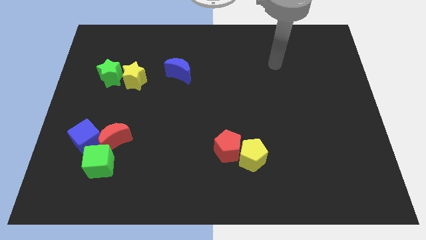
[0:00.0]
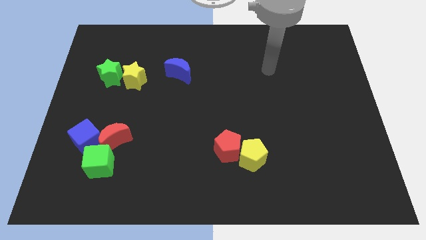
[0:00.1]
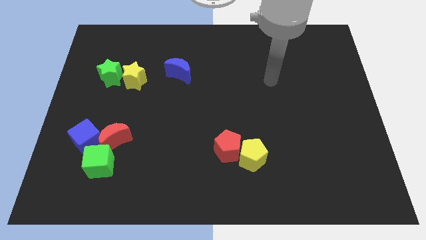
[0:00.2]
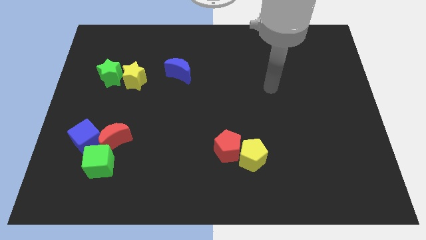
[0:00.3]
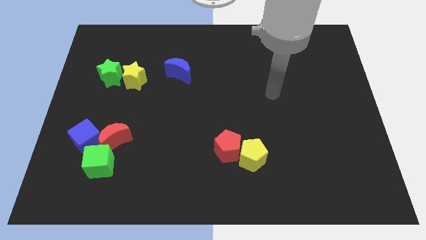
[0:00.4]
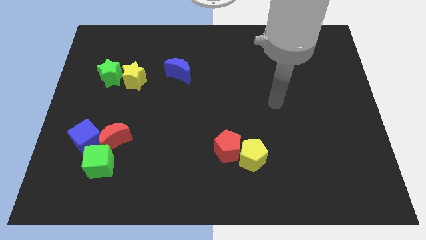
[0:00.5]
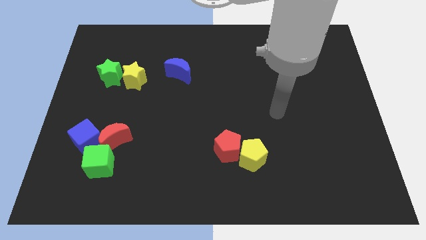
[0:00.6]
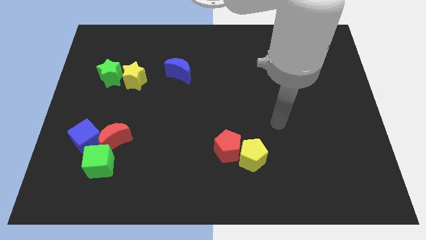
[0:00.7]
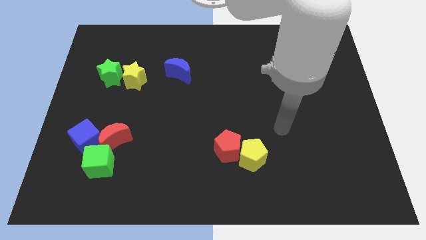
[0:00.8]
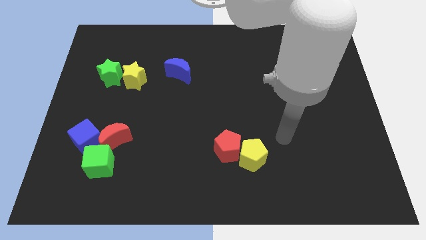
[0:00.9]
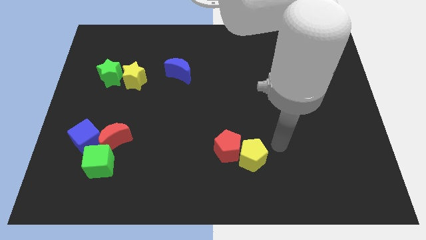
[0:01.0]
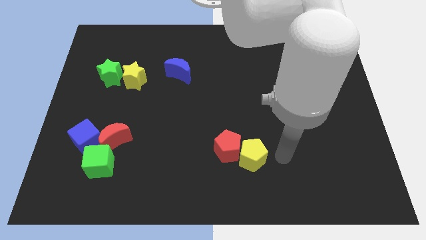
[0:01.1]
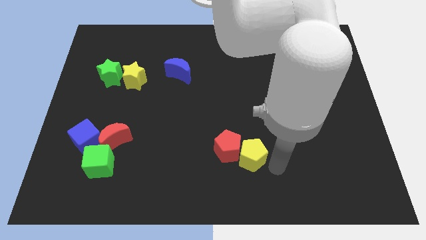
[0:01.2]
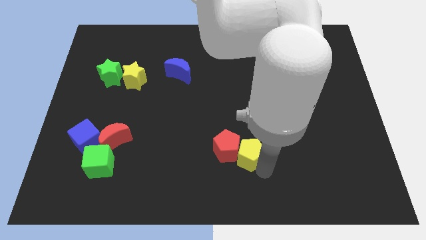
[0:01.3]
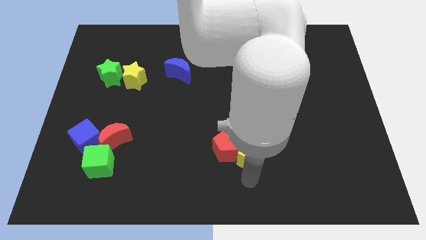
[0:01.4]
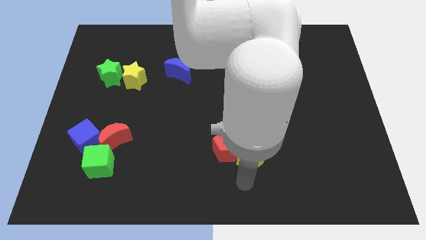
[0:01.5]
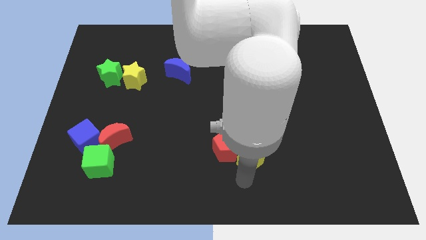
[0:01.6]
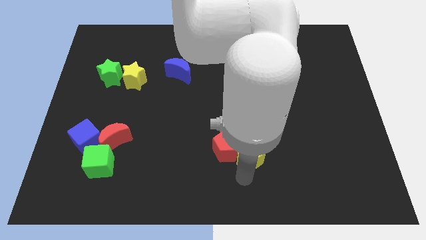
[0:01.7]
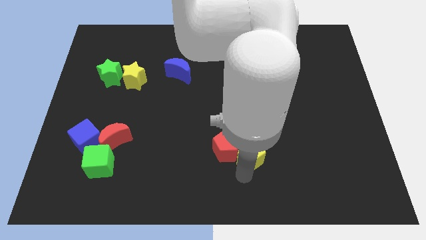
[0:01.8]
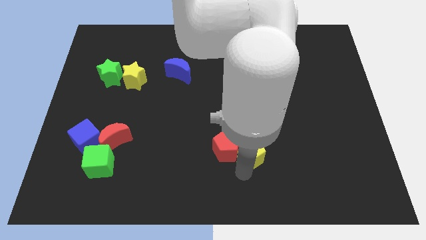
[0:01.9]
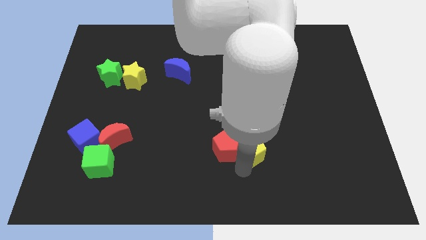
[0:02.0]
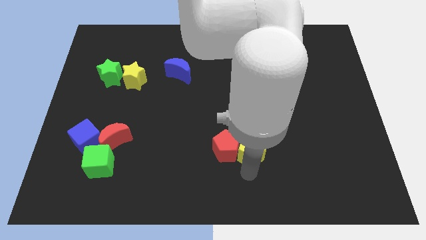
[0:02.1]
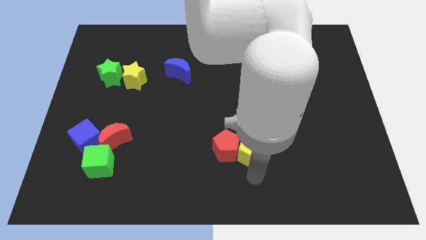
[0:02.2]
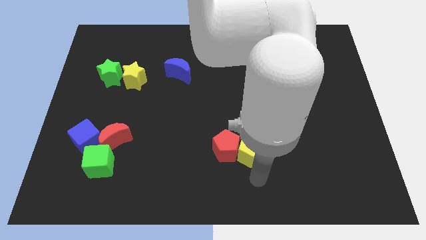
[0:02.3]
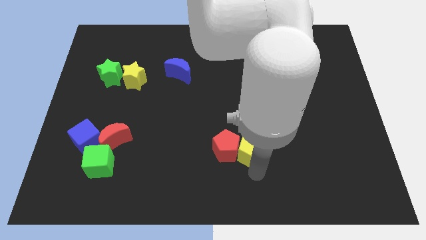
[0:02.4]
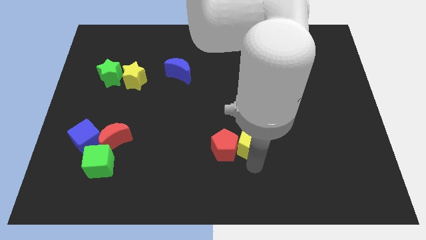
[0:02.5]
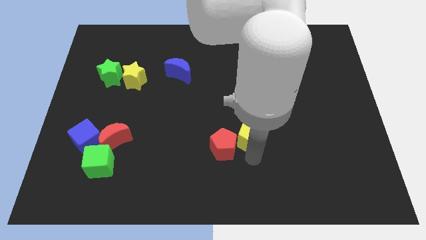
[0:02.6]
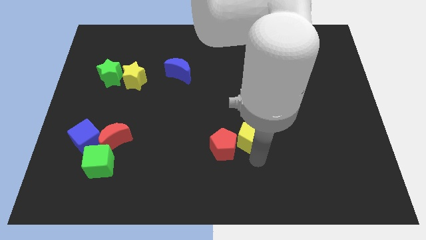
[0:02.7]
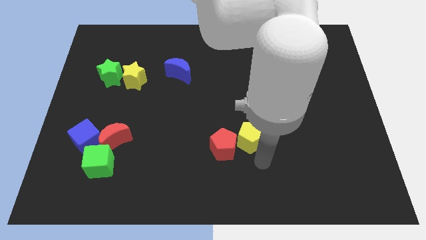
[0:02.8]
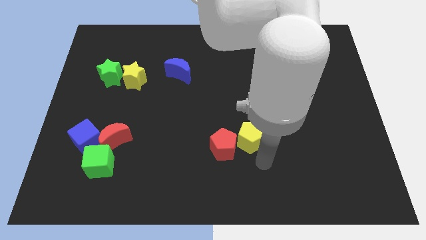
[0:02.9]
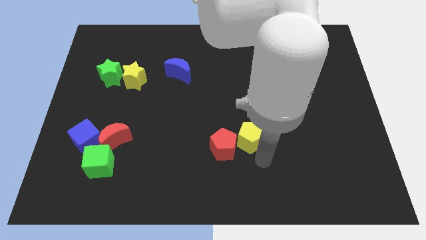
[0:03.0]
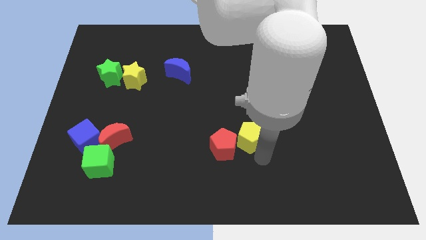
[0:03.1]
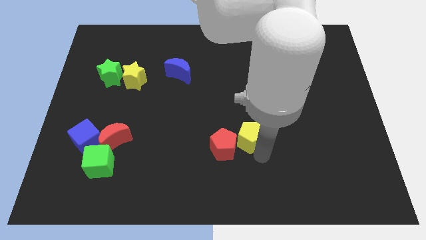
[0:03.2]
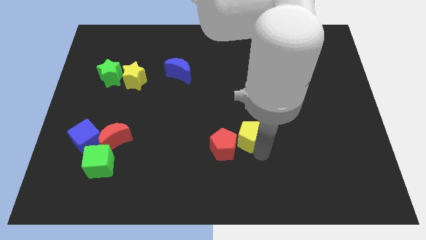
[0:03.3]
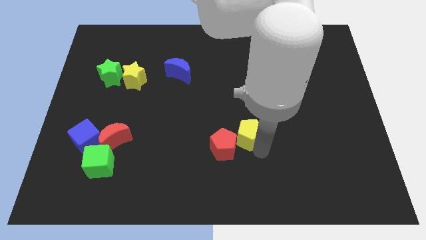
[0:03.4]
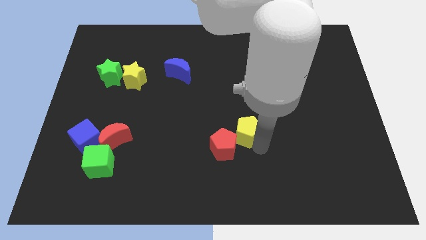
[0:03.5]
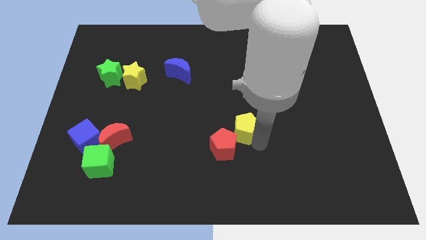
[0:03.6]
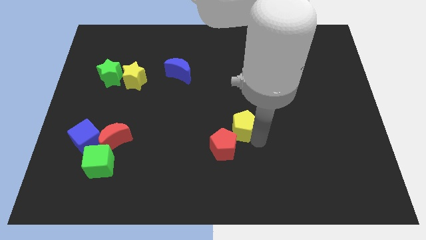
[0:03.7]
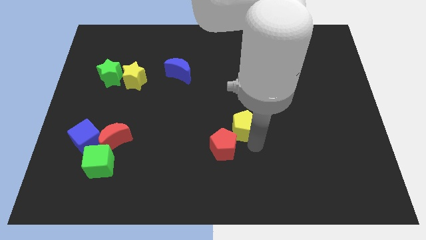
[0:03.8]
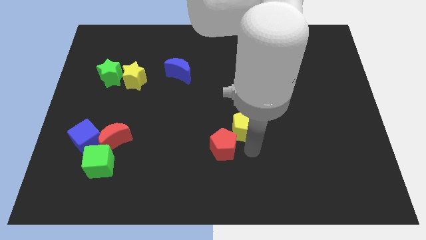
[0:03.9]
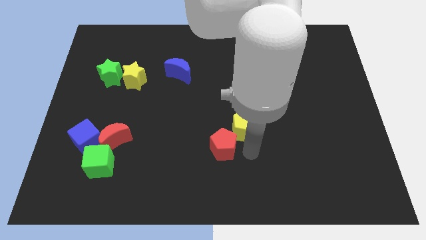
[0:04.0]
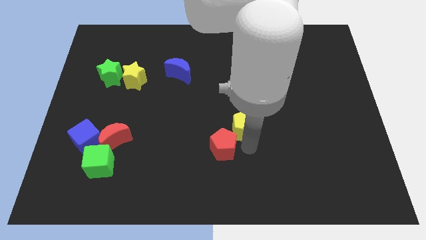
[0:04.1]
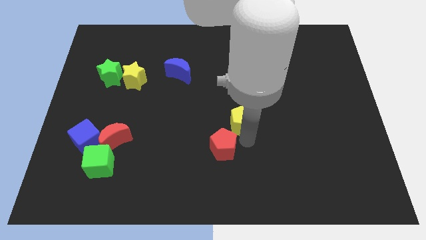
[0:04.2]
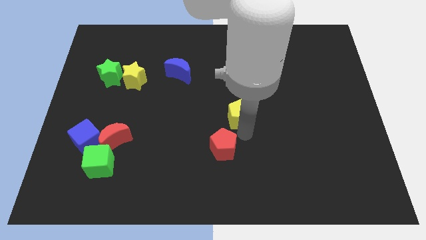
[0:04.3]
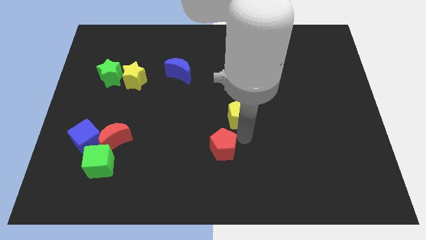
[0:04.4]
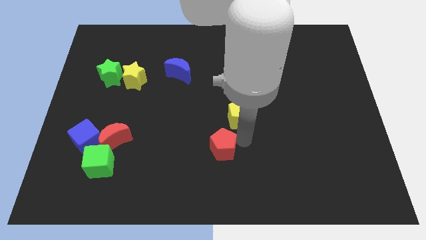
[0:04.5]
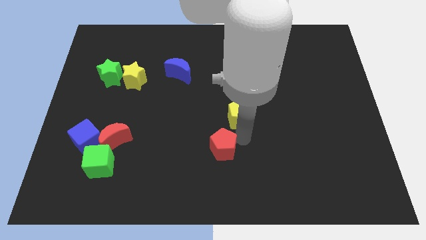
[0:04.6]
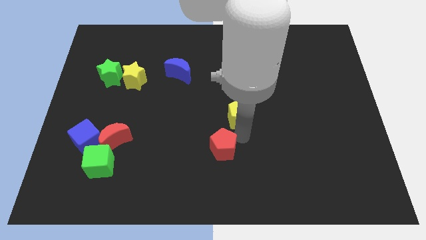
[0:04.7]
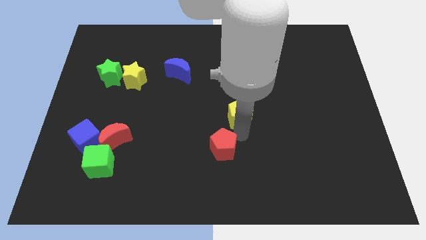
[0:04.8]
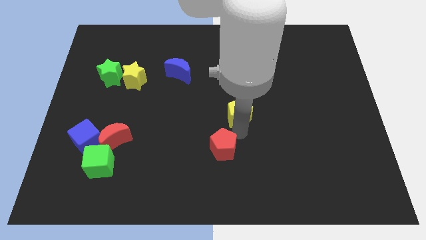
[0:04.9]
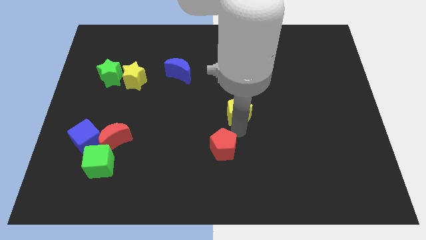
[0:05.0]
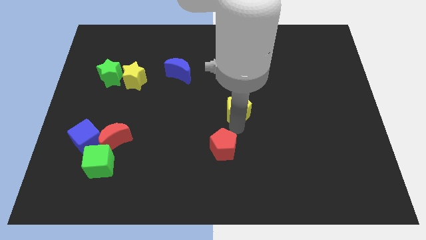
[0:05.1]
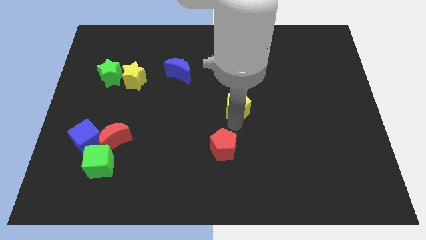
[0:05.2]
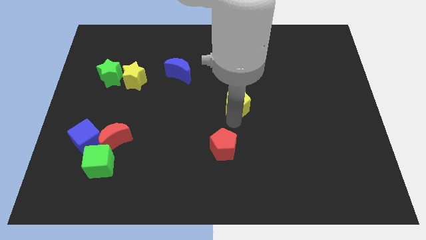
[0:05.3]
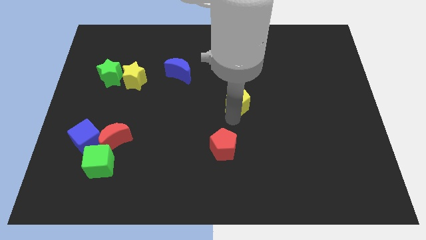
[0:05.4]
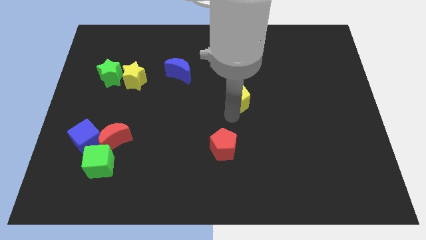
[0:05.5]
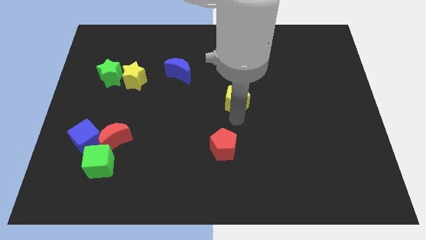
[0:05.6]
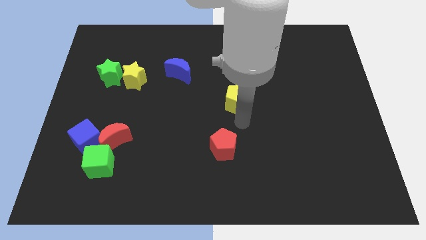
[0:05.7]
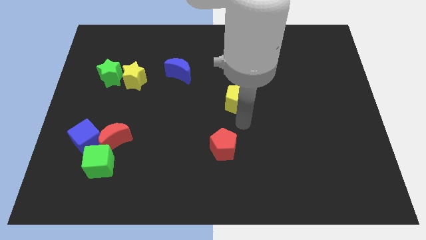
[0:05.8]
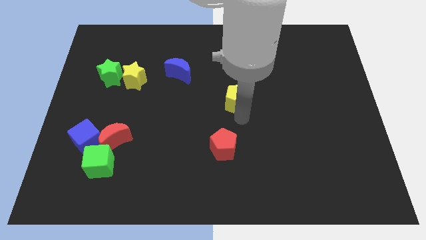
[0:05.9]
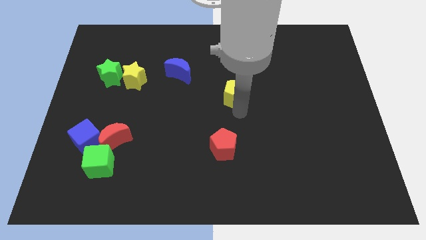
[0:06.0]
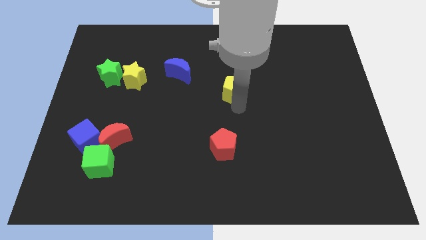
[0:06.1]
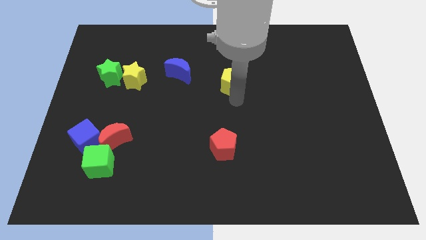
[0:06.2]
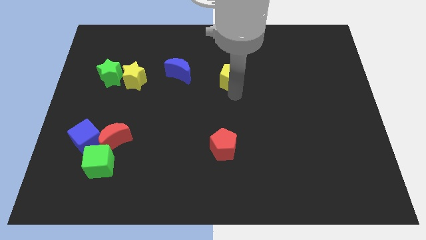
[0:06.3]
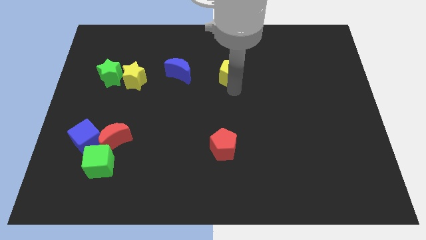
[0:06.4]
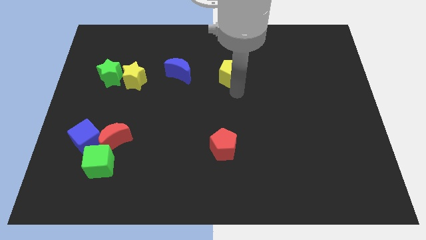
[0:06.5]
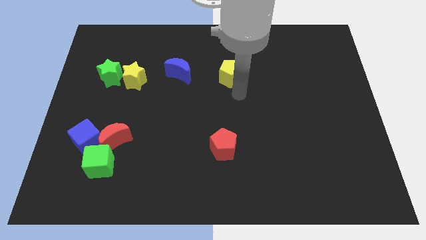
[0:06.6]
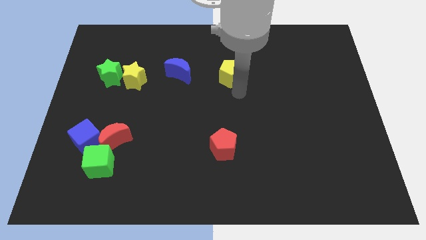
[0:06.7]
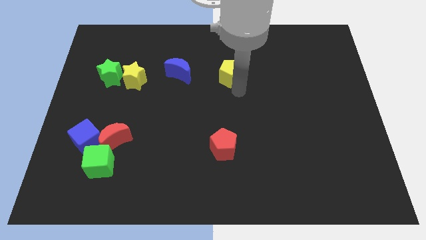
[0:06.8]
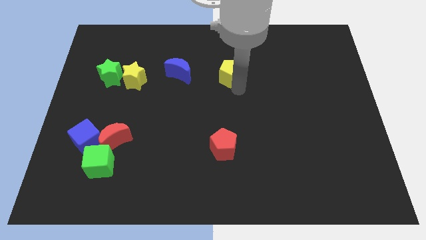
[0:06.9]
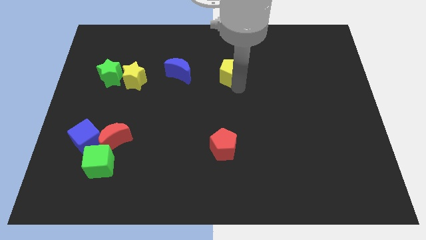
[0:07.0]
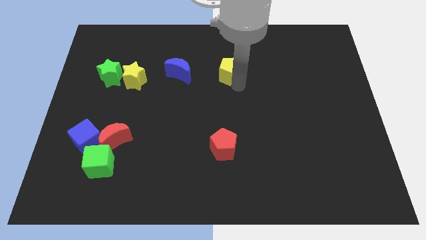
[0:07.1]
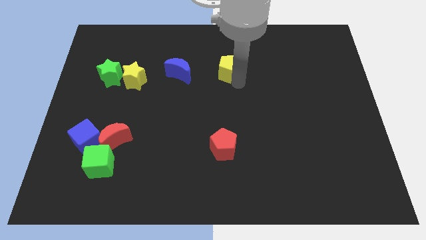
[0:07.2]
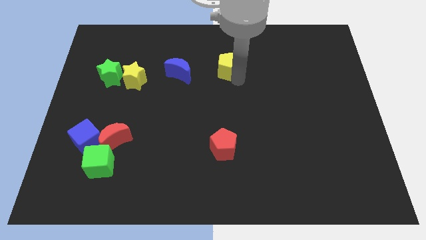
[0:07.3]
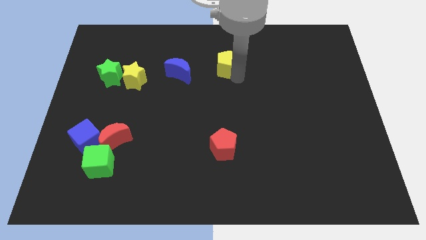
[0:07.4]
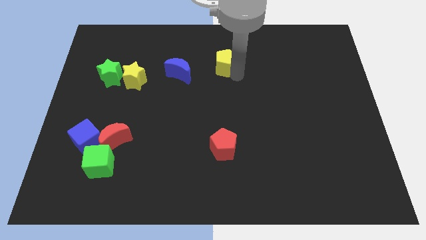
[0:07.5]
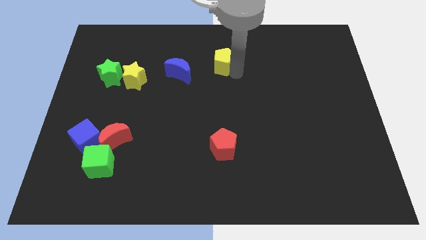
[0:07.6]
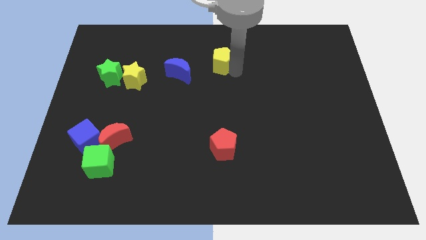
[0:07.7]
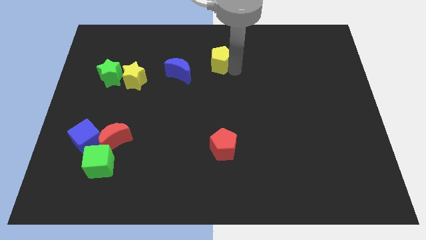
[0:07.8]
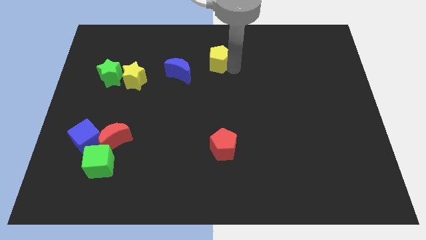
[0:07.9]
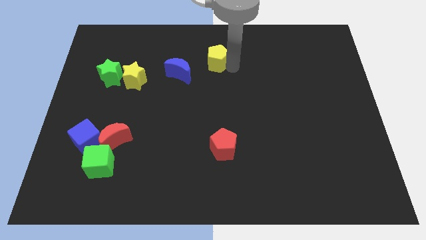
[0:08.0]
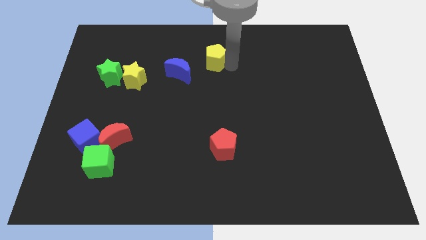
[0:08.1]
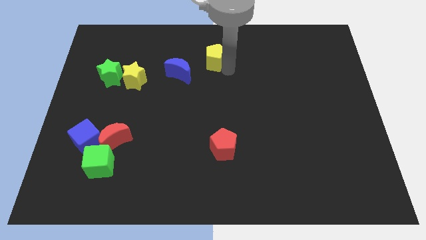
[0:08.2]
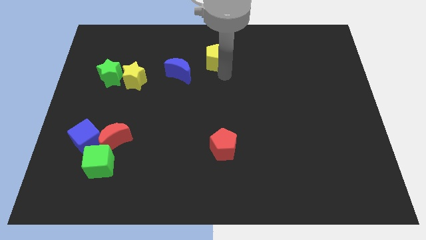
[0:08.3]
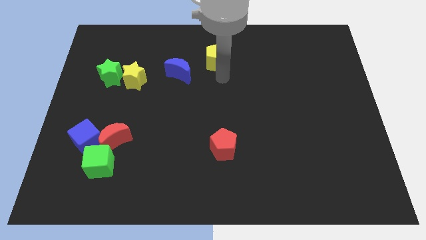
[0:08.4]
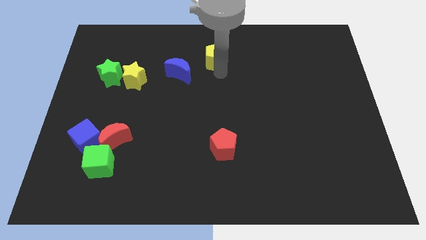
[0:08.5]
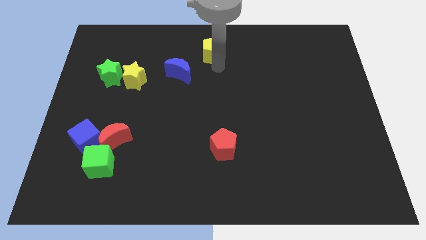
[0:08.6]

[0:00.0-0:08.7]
slide the yellow pentagon to the top
